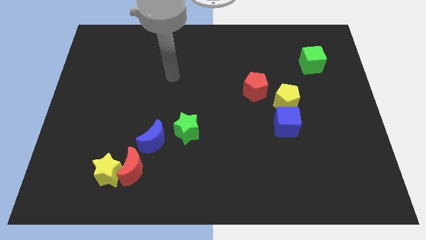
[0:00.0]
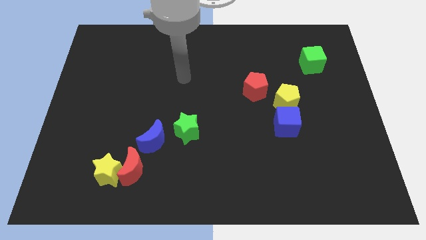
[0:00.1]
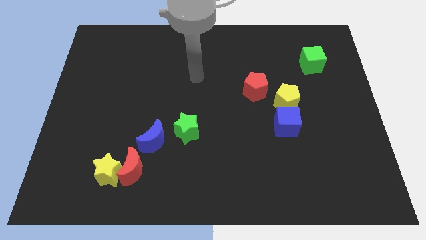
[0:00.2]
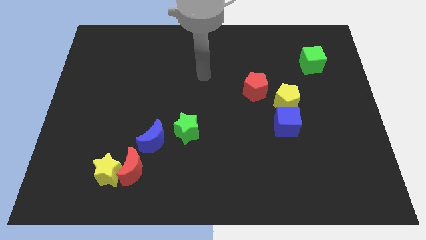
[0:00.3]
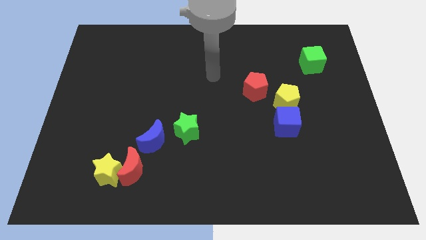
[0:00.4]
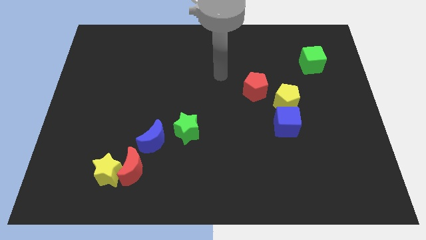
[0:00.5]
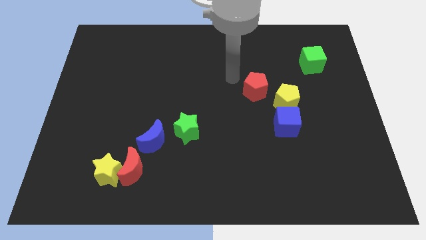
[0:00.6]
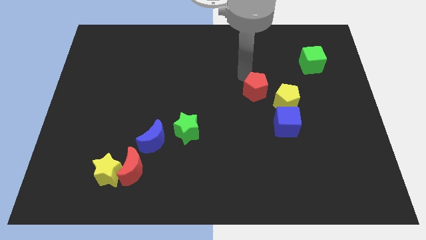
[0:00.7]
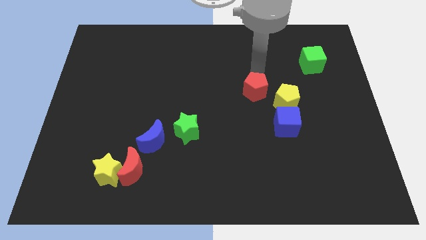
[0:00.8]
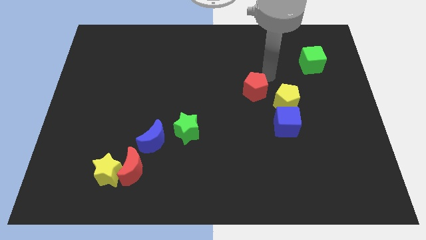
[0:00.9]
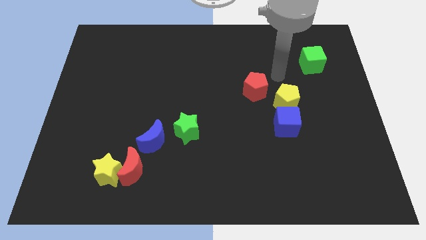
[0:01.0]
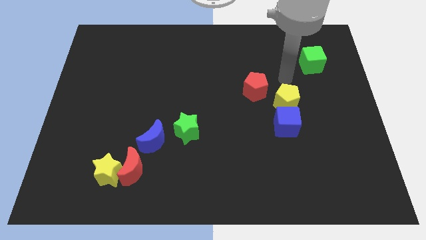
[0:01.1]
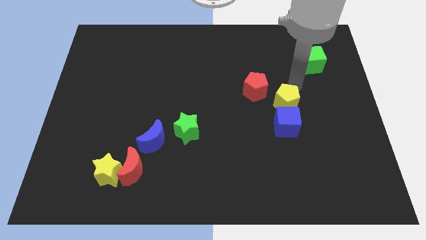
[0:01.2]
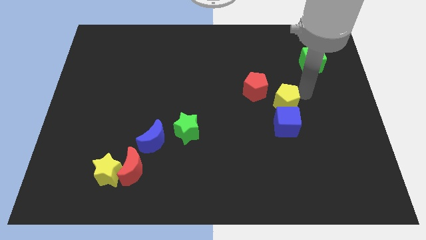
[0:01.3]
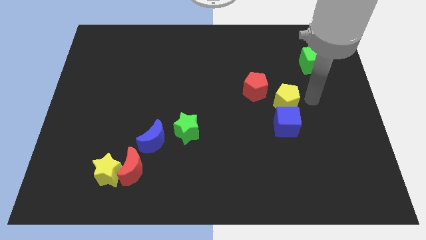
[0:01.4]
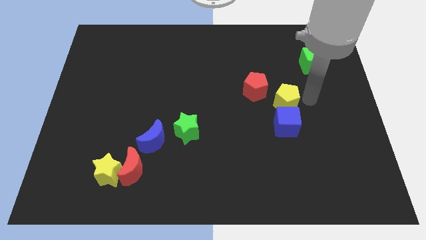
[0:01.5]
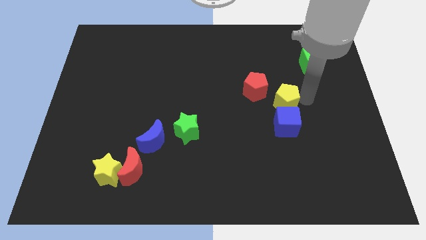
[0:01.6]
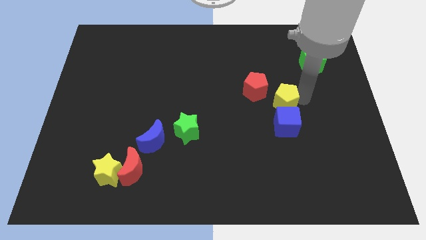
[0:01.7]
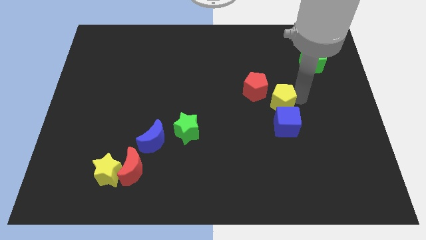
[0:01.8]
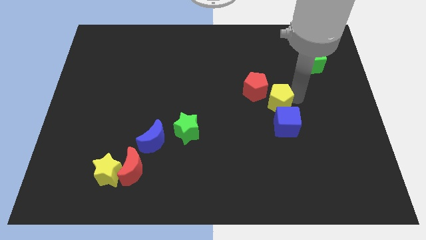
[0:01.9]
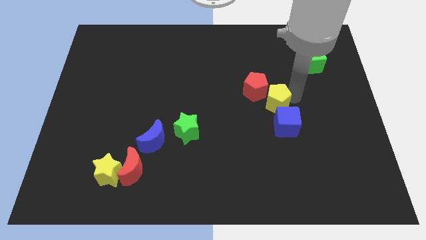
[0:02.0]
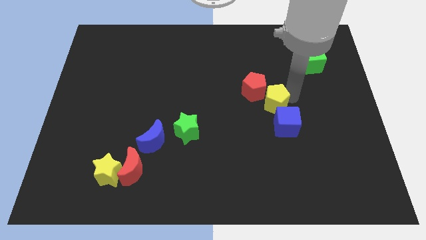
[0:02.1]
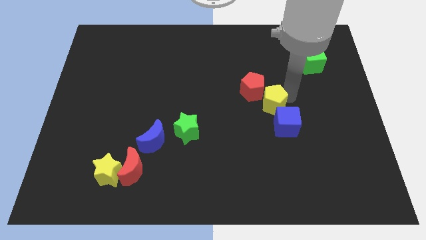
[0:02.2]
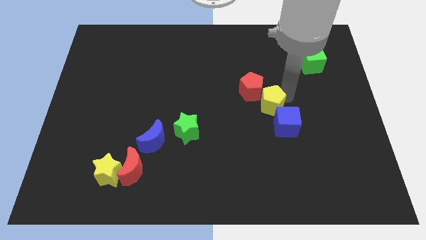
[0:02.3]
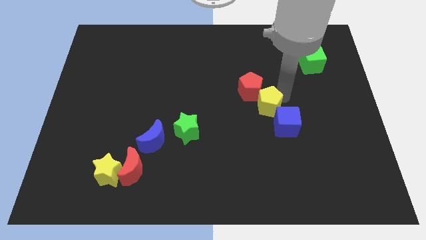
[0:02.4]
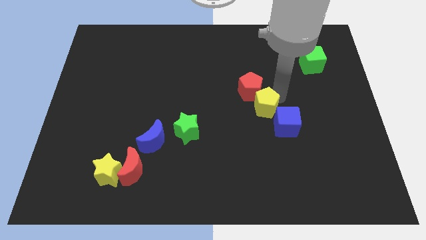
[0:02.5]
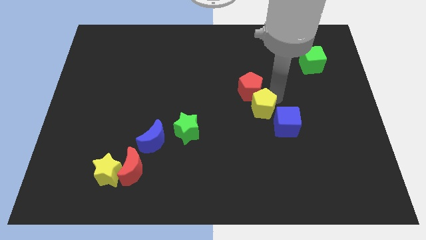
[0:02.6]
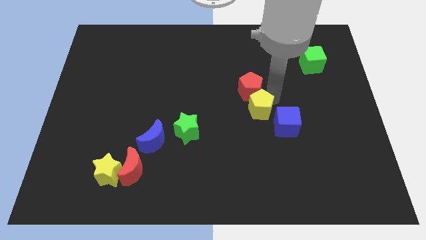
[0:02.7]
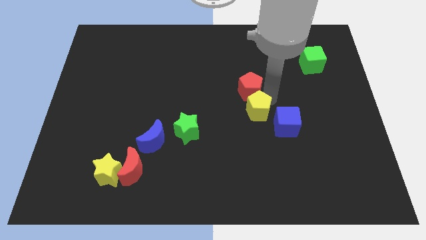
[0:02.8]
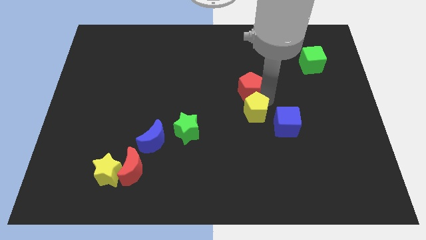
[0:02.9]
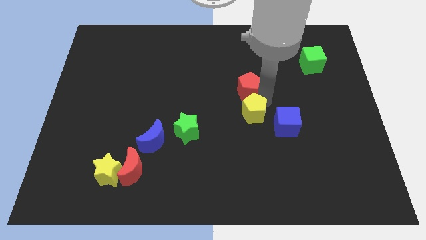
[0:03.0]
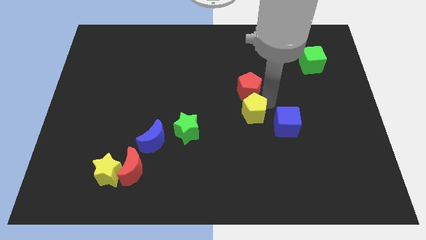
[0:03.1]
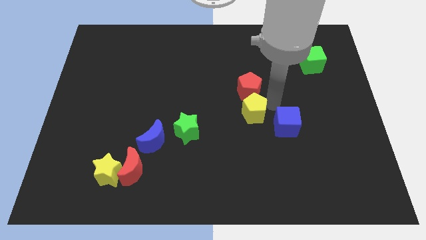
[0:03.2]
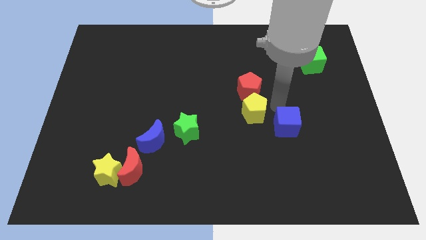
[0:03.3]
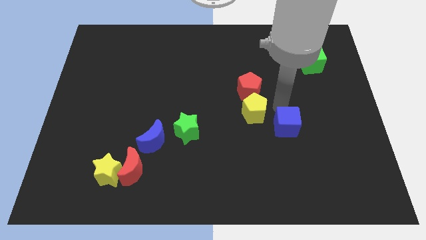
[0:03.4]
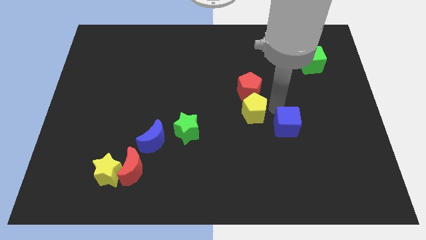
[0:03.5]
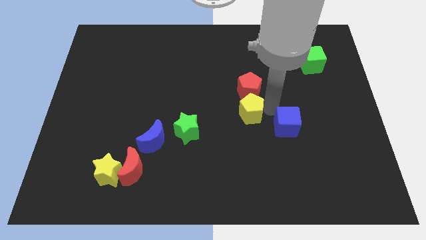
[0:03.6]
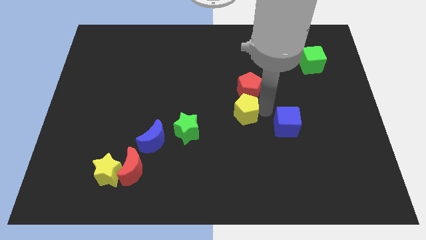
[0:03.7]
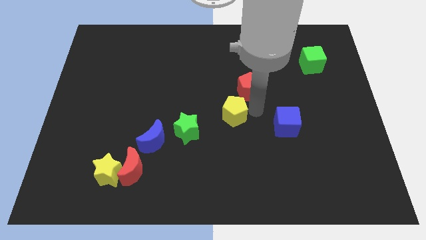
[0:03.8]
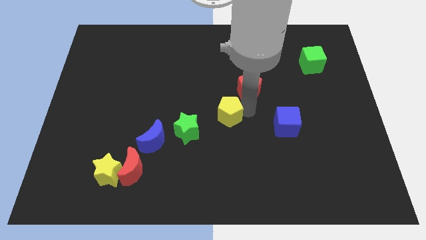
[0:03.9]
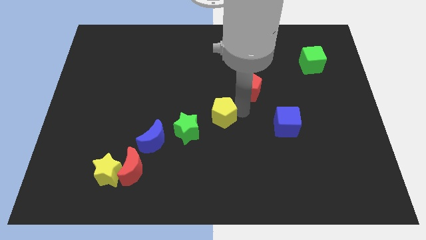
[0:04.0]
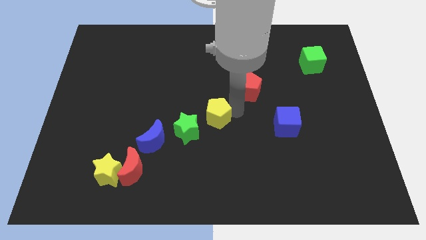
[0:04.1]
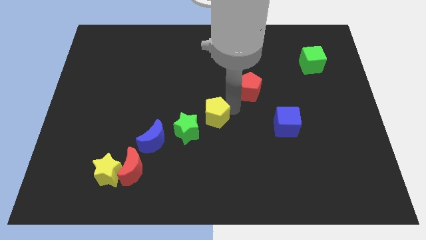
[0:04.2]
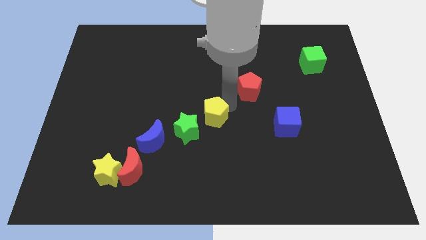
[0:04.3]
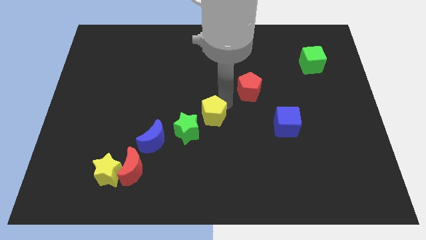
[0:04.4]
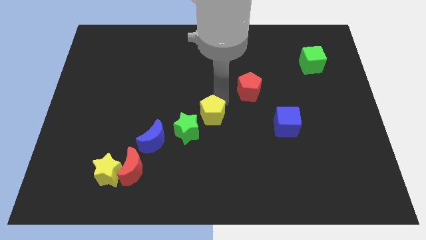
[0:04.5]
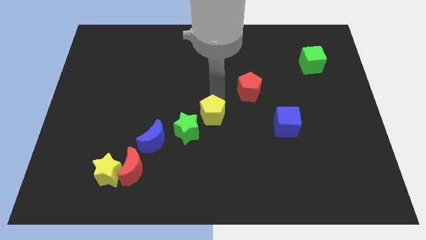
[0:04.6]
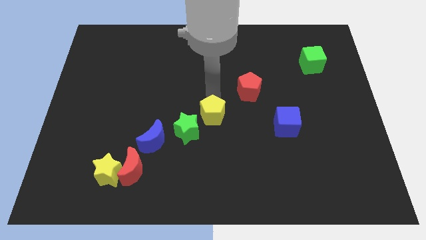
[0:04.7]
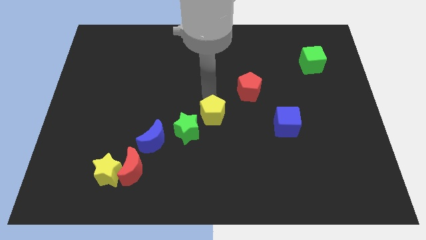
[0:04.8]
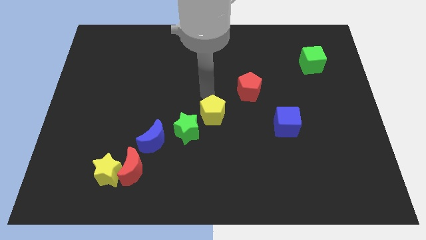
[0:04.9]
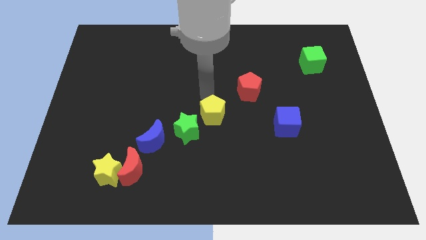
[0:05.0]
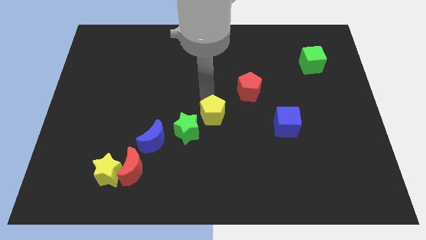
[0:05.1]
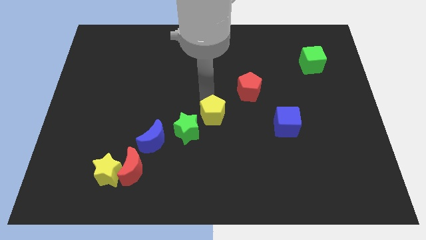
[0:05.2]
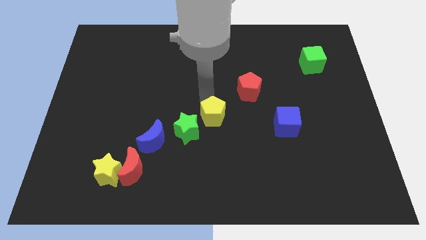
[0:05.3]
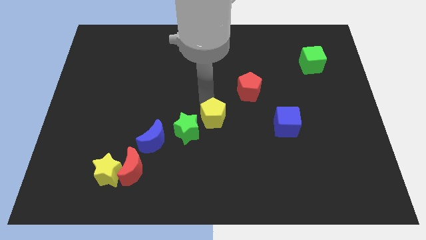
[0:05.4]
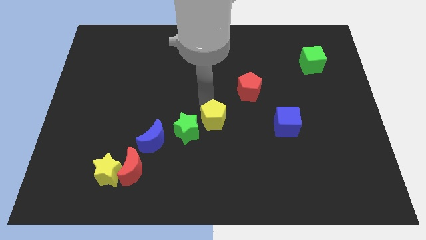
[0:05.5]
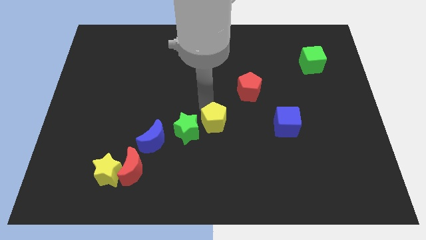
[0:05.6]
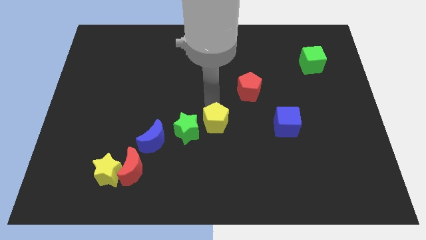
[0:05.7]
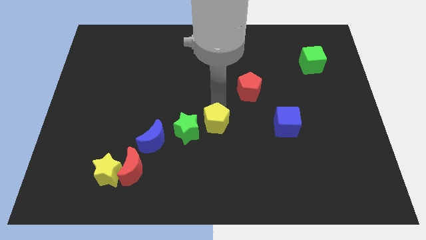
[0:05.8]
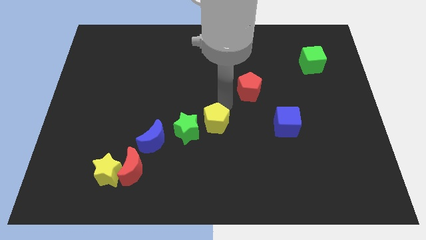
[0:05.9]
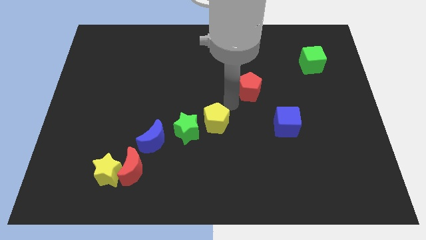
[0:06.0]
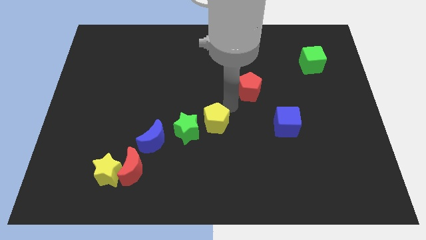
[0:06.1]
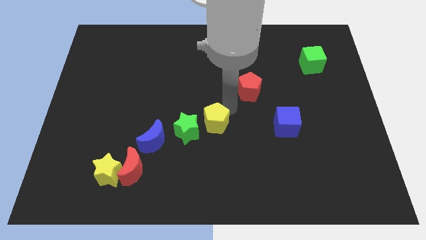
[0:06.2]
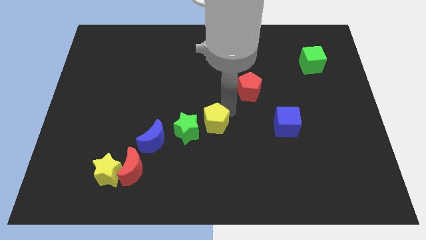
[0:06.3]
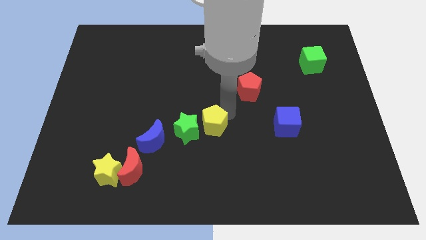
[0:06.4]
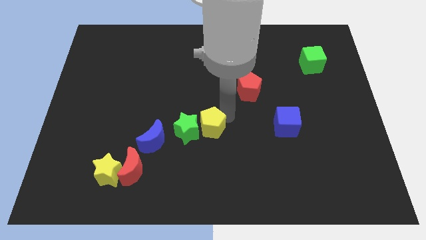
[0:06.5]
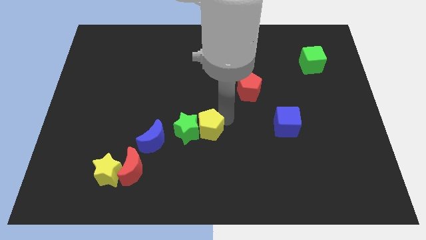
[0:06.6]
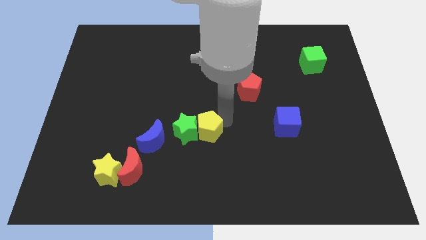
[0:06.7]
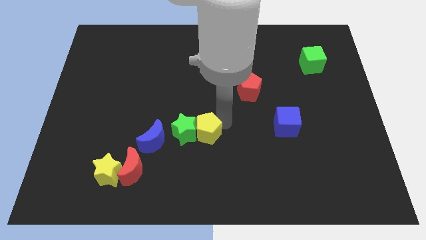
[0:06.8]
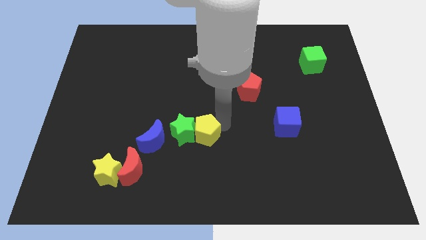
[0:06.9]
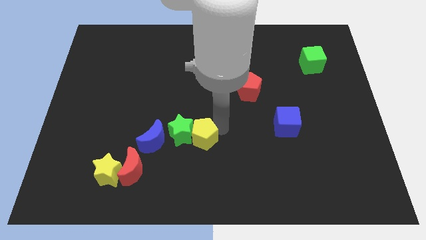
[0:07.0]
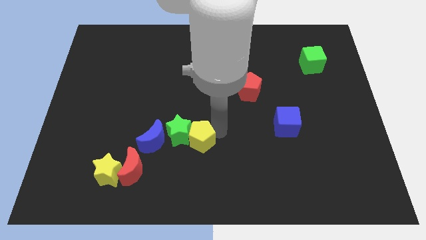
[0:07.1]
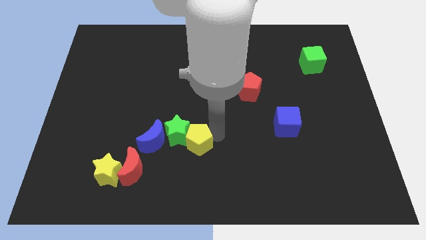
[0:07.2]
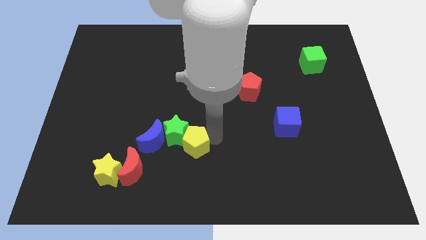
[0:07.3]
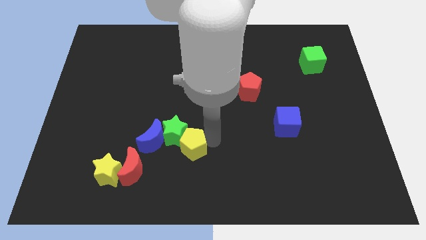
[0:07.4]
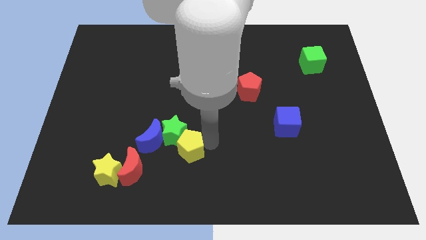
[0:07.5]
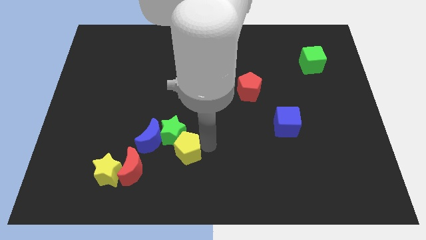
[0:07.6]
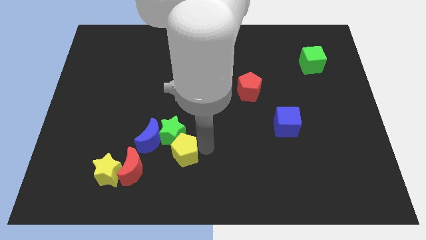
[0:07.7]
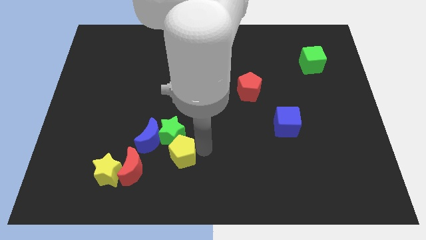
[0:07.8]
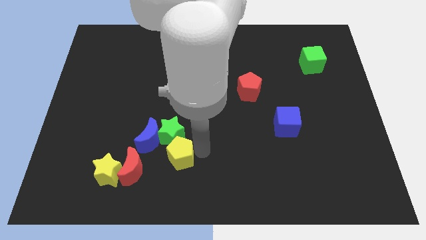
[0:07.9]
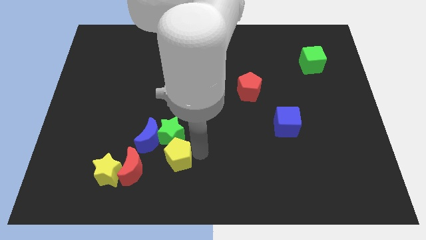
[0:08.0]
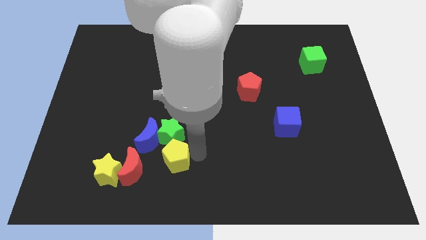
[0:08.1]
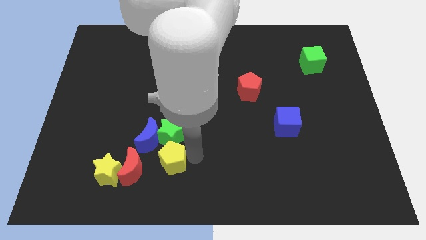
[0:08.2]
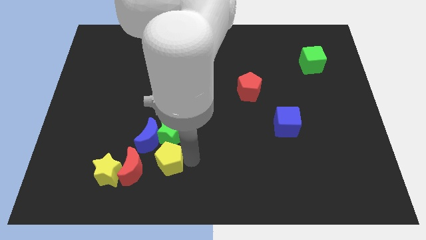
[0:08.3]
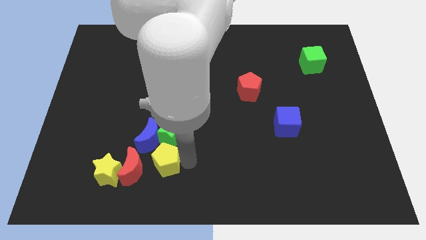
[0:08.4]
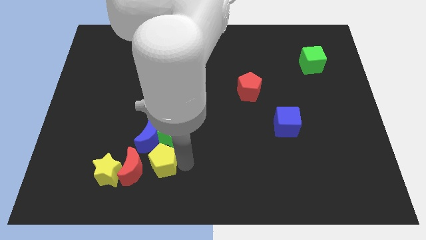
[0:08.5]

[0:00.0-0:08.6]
move the yellow pentagon close to the red moon
